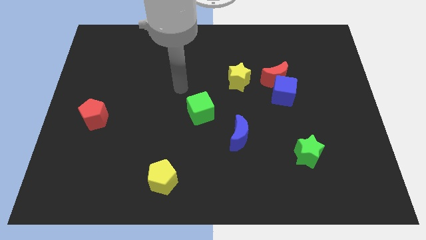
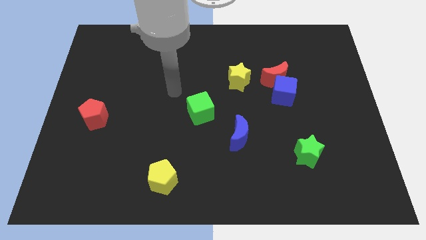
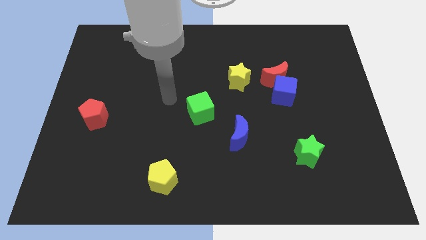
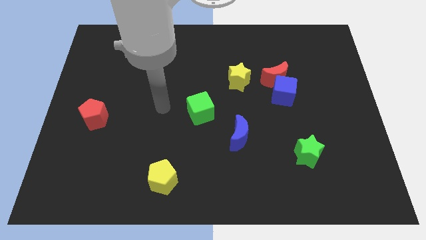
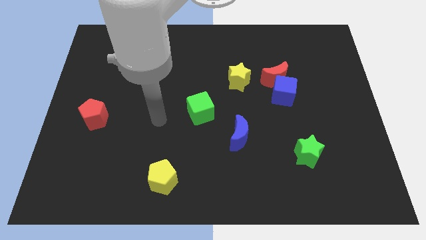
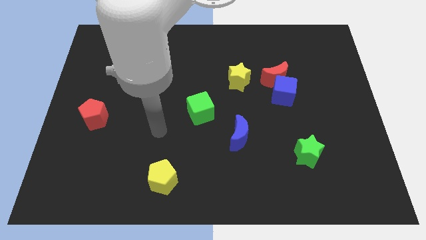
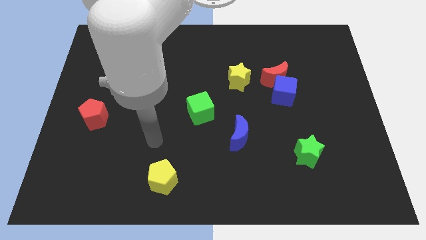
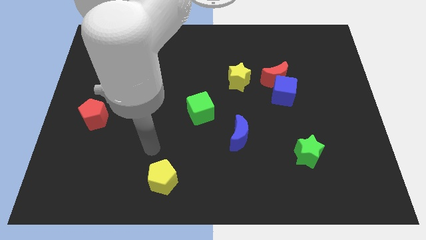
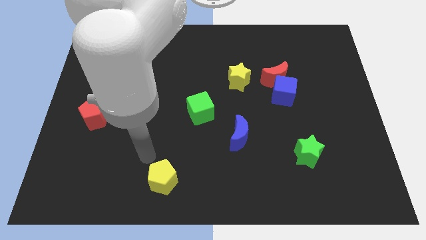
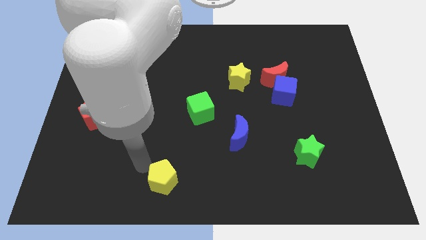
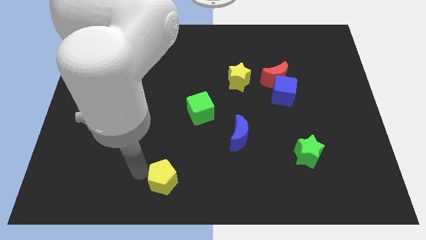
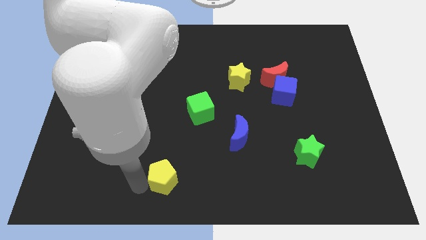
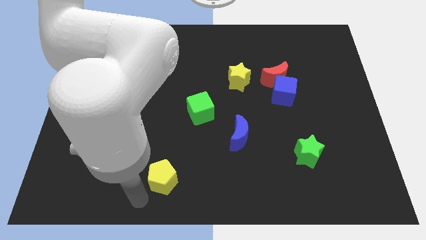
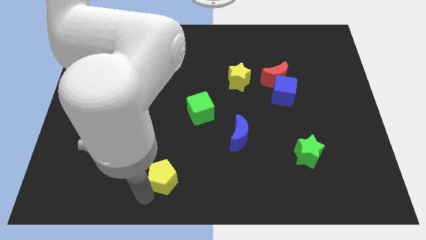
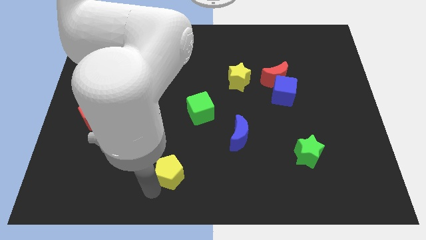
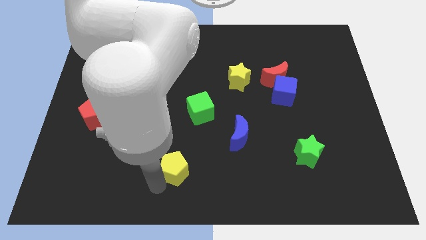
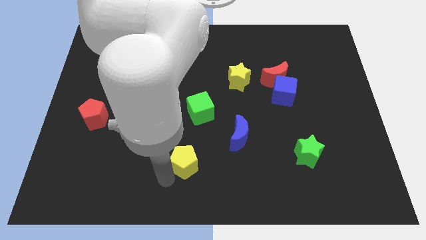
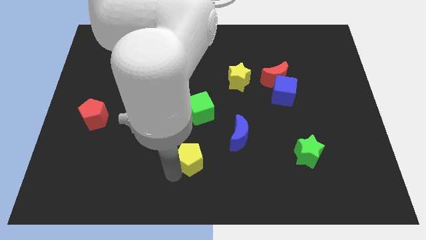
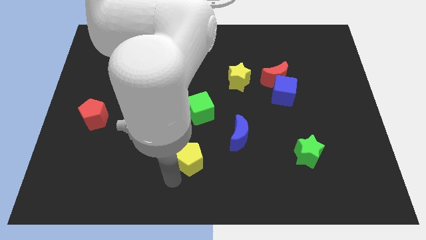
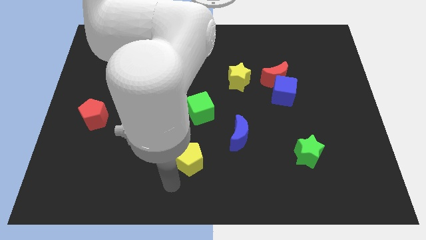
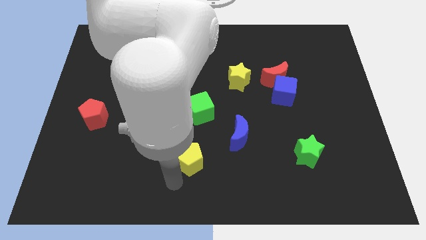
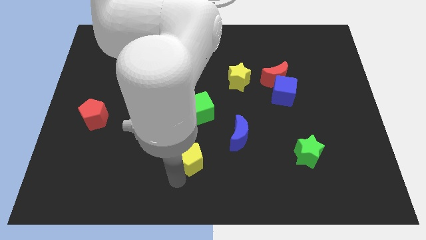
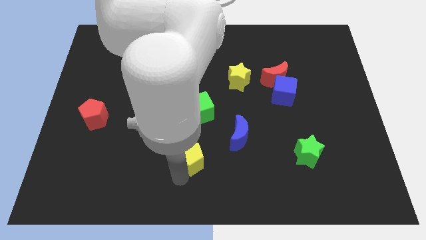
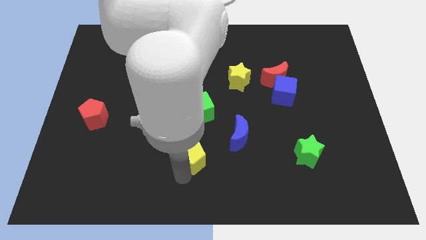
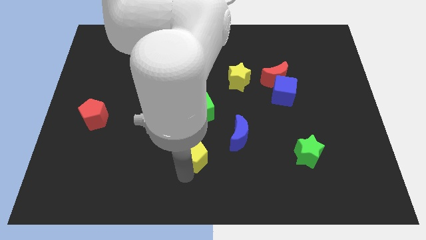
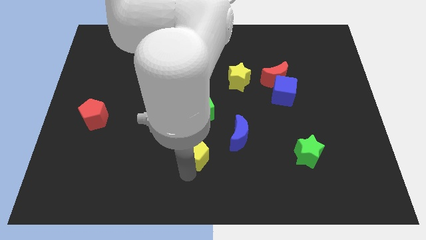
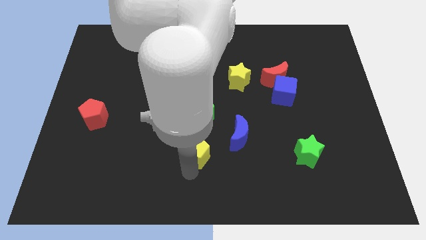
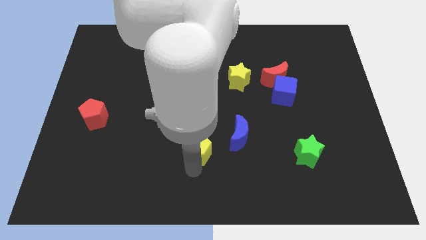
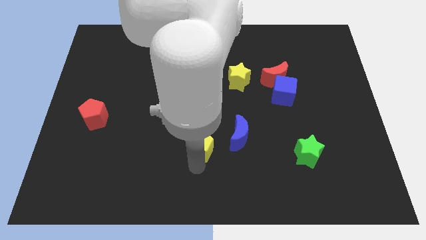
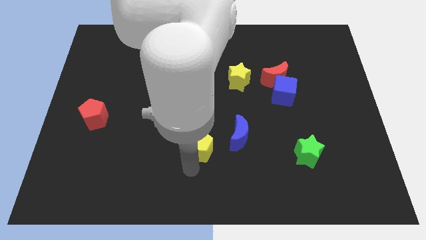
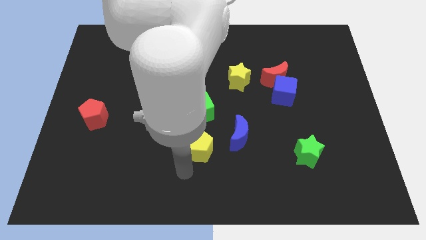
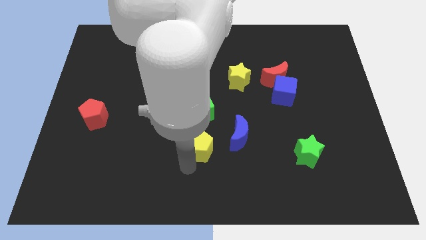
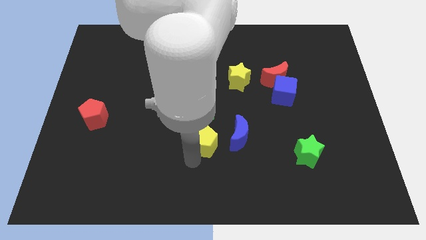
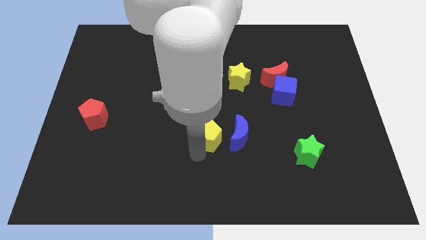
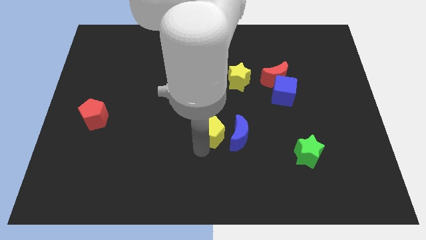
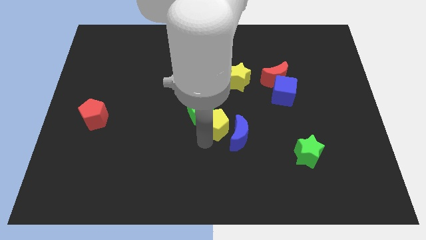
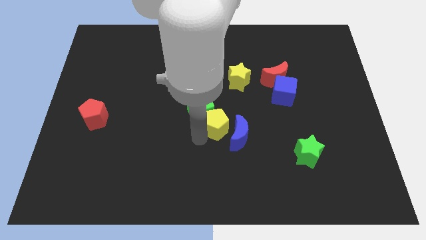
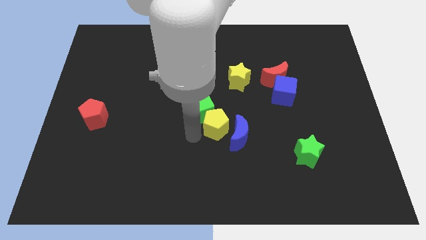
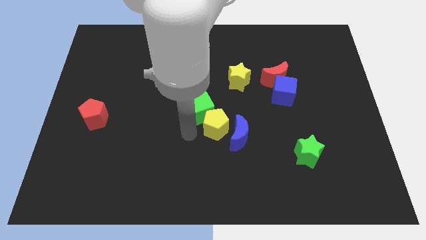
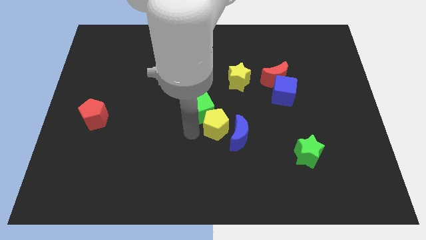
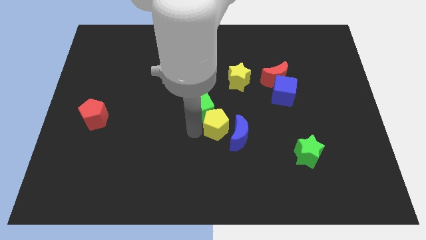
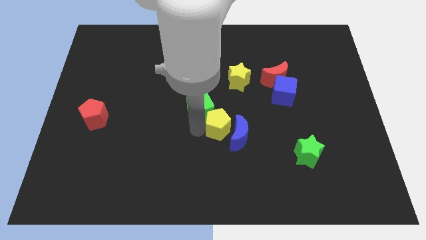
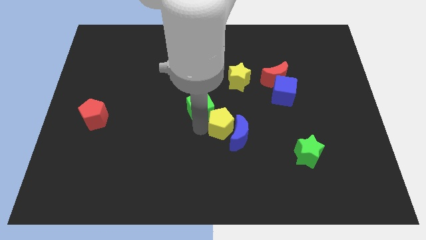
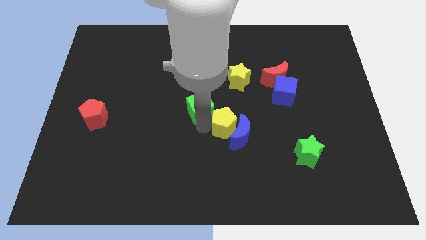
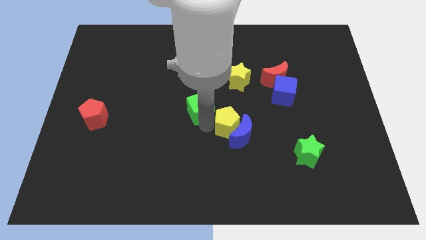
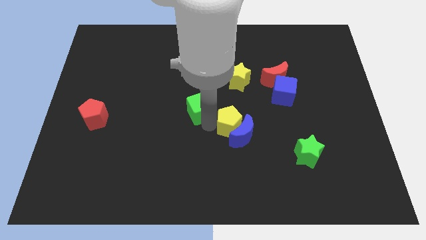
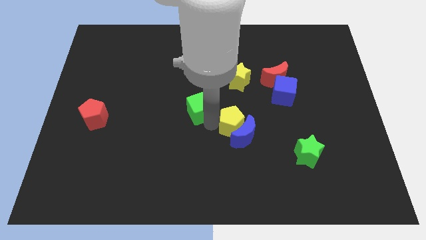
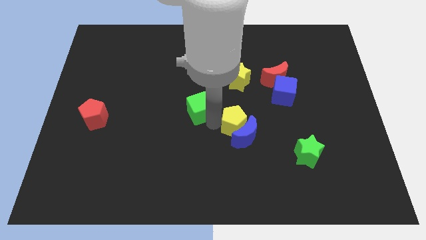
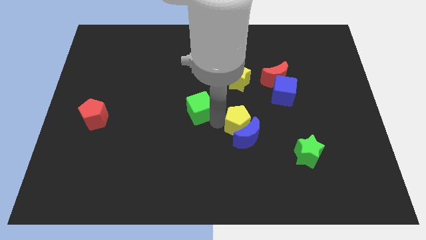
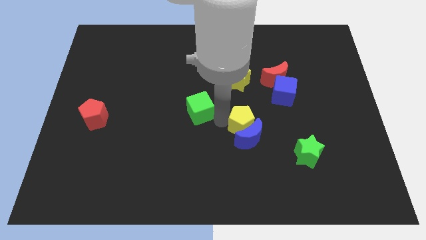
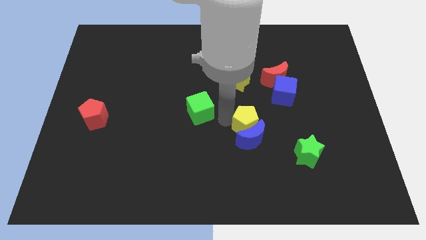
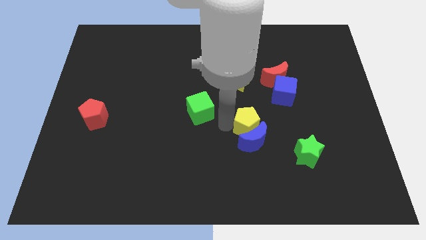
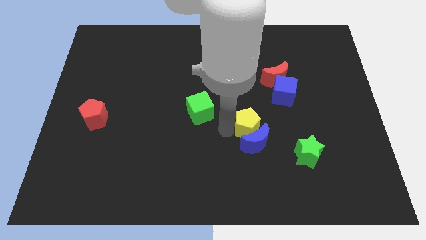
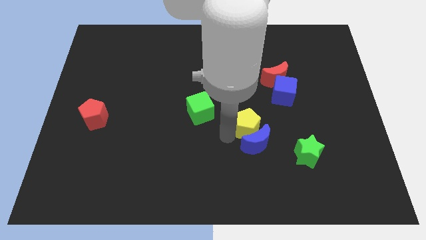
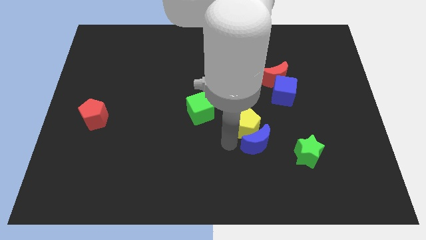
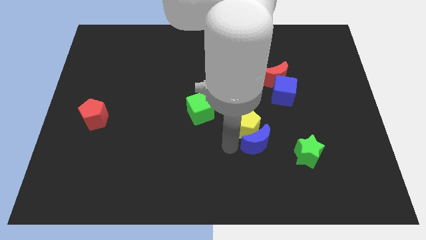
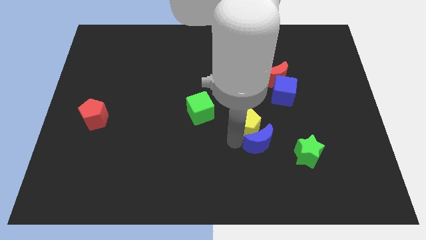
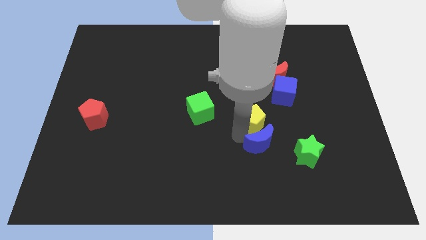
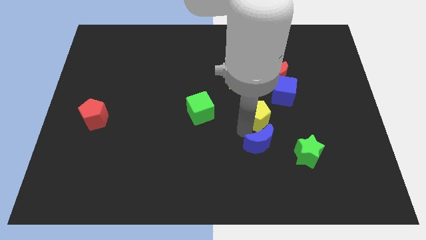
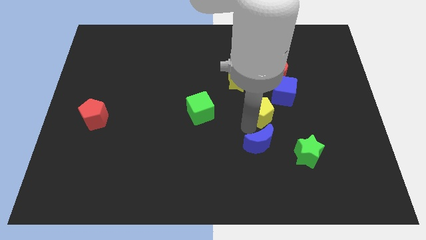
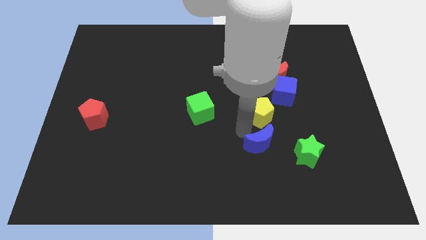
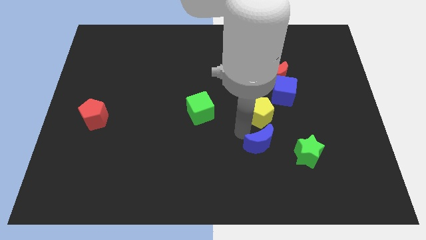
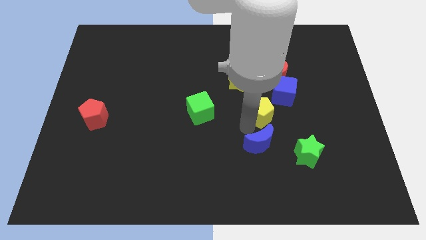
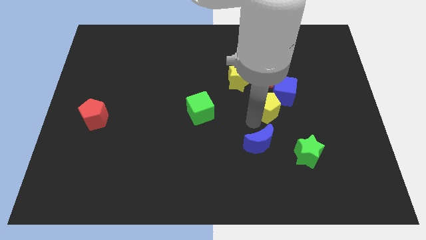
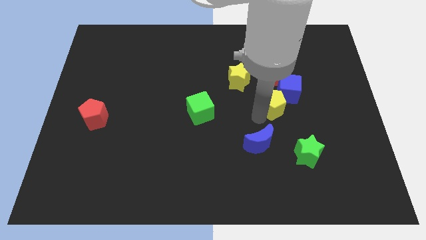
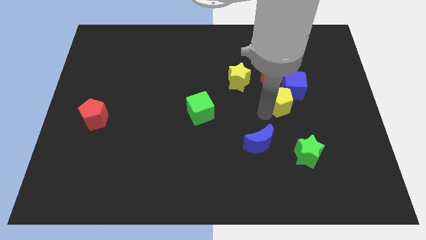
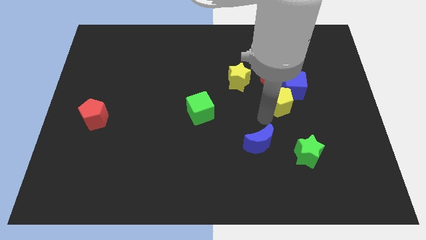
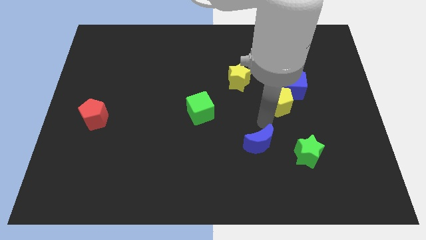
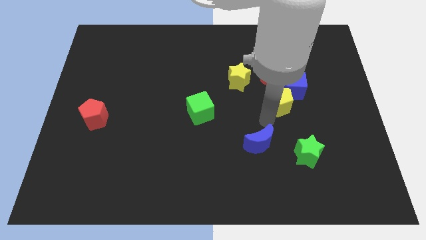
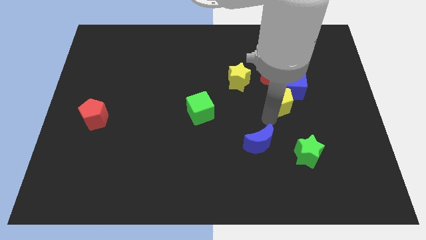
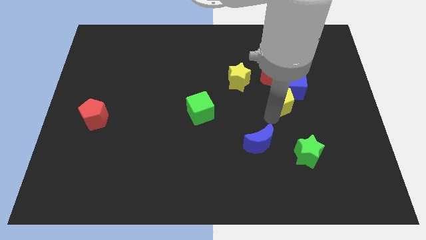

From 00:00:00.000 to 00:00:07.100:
push the yellow pentagon towards the blue cube
